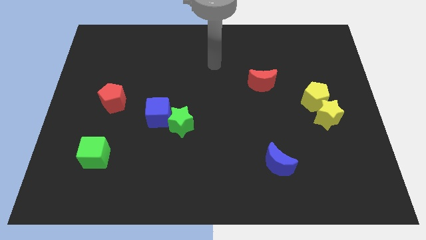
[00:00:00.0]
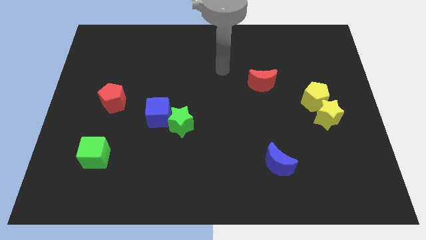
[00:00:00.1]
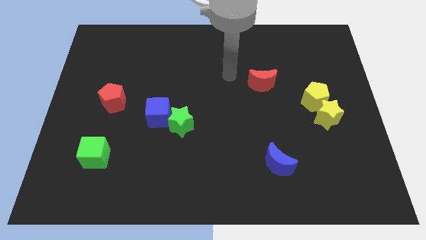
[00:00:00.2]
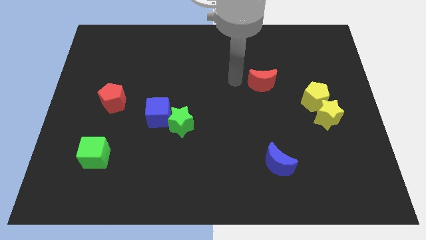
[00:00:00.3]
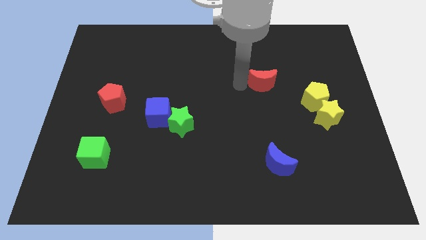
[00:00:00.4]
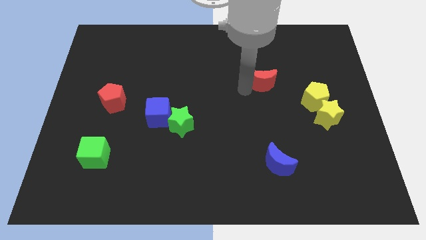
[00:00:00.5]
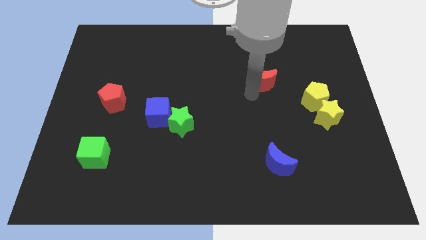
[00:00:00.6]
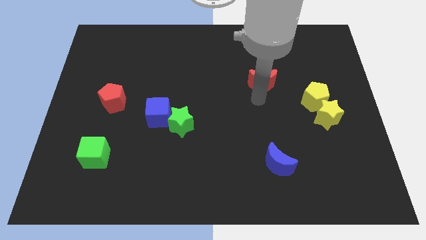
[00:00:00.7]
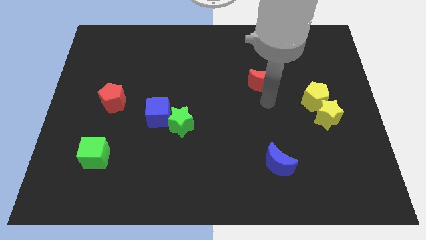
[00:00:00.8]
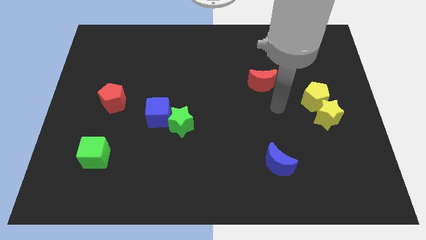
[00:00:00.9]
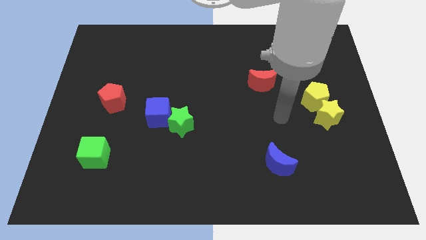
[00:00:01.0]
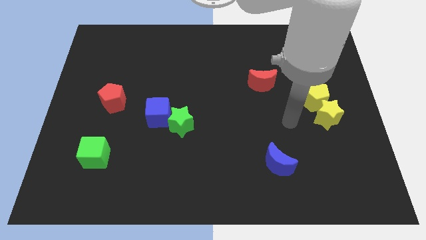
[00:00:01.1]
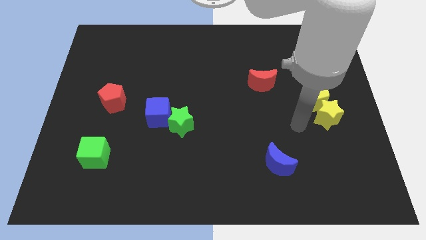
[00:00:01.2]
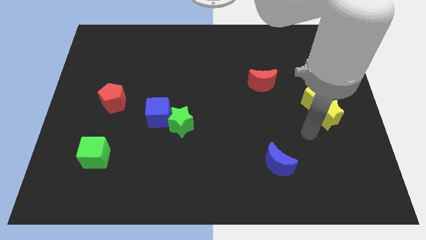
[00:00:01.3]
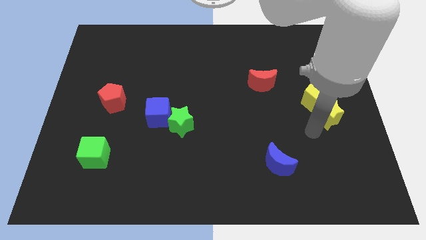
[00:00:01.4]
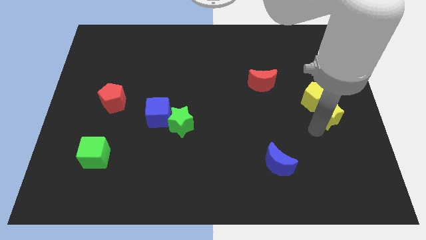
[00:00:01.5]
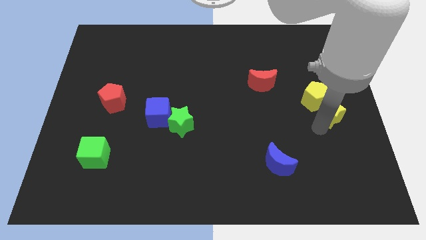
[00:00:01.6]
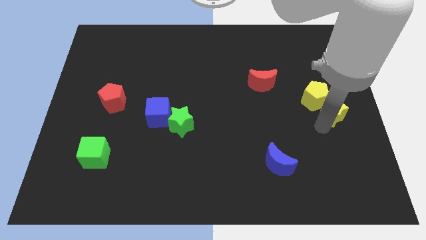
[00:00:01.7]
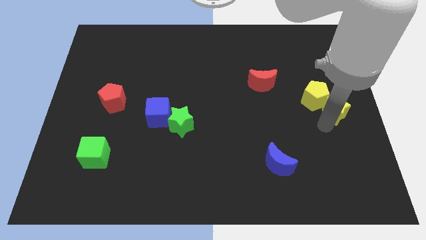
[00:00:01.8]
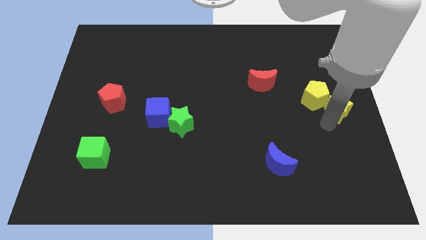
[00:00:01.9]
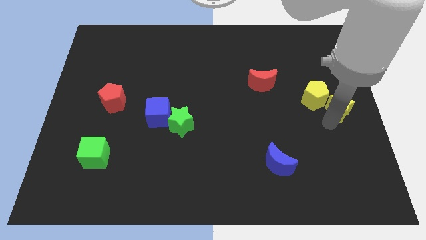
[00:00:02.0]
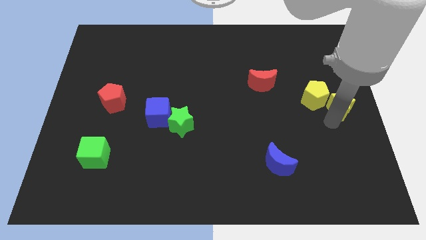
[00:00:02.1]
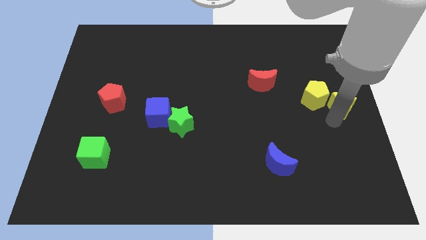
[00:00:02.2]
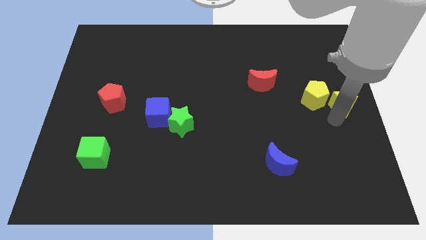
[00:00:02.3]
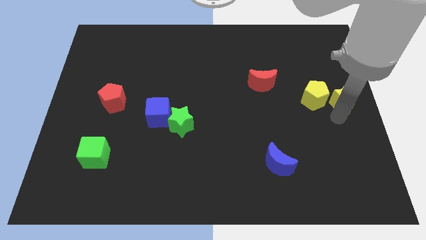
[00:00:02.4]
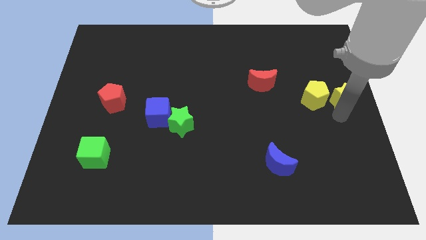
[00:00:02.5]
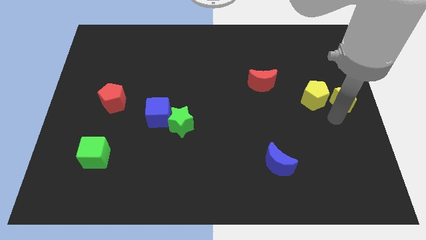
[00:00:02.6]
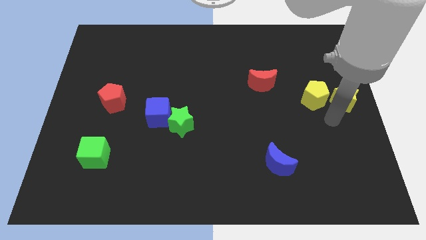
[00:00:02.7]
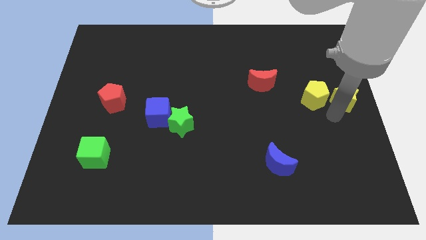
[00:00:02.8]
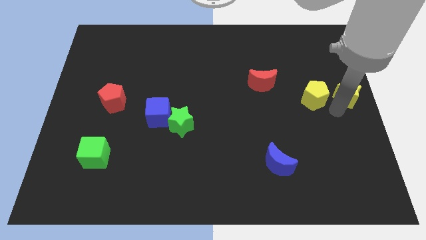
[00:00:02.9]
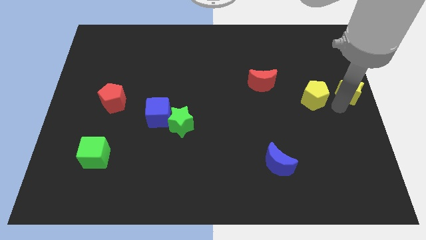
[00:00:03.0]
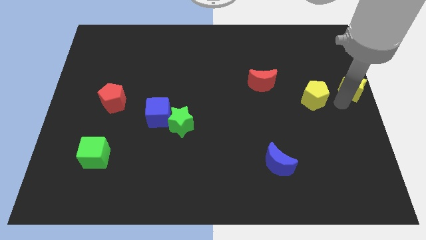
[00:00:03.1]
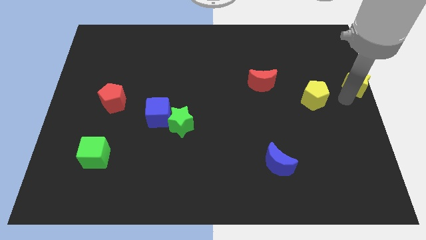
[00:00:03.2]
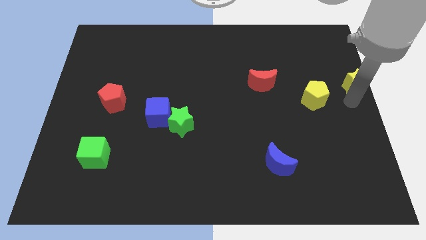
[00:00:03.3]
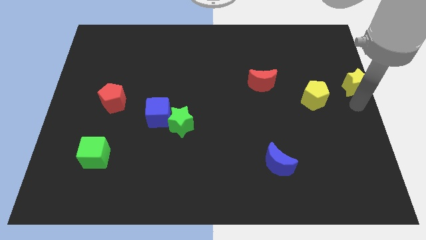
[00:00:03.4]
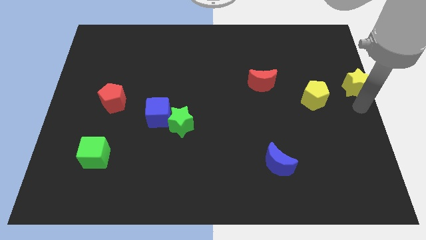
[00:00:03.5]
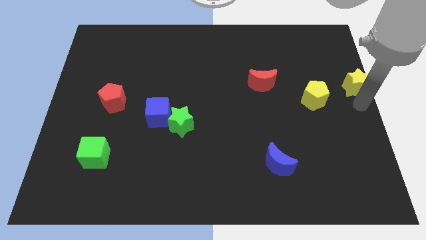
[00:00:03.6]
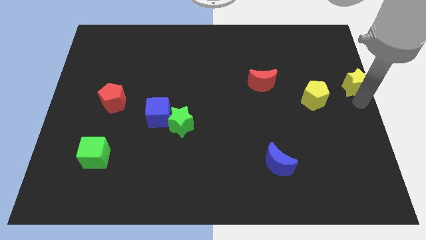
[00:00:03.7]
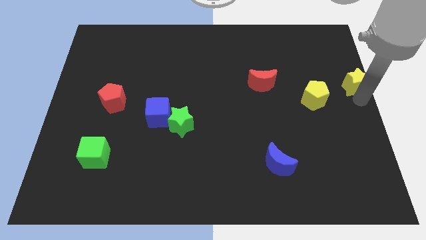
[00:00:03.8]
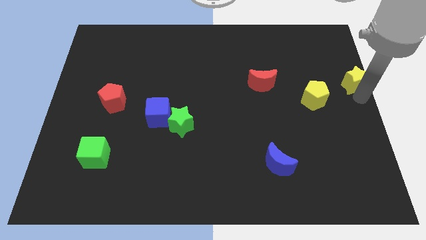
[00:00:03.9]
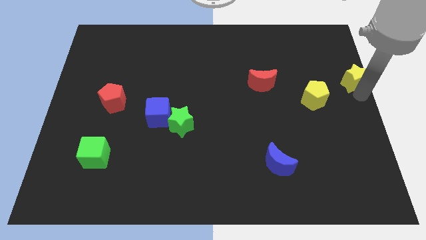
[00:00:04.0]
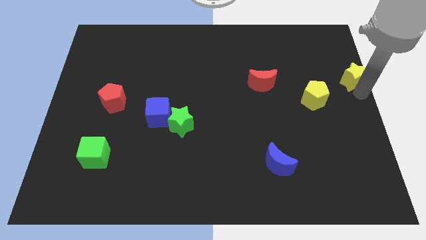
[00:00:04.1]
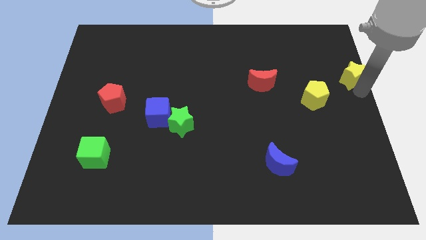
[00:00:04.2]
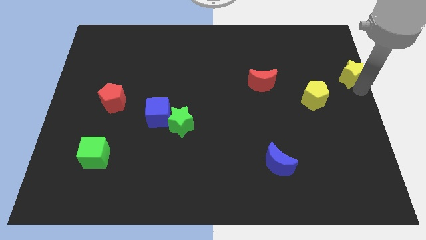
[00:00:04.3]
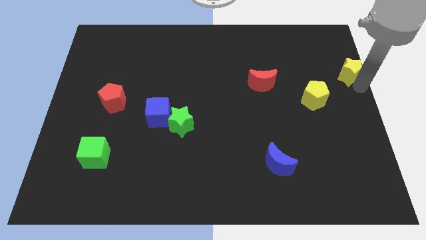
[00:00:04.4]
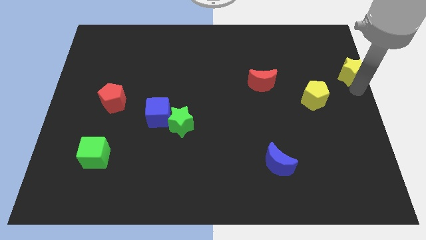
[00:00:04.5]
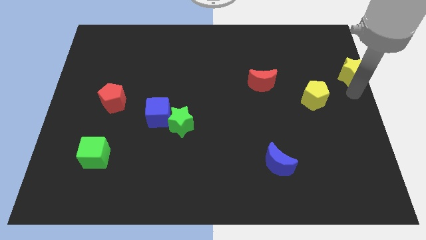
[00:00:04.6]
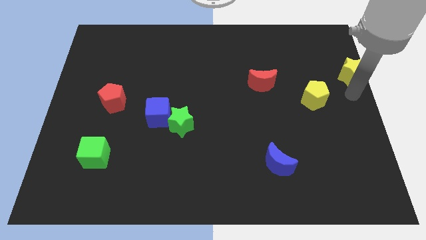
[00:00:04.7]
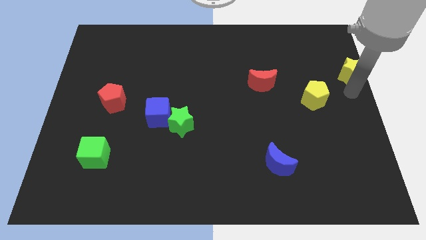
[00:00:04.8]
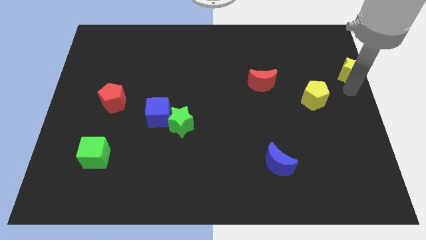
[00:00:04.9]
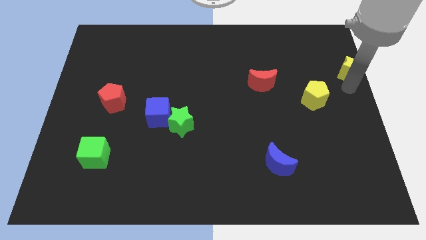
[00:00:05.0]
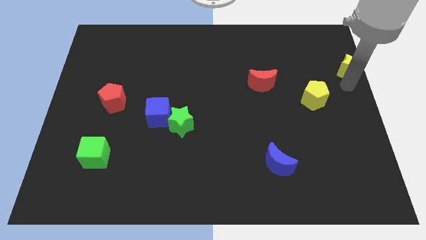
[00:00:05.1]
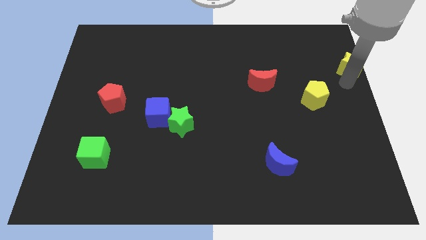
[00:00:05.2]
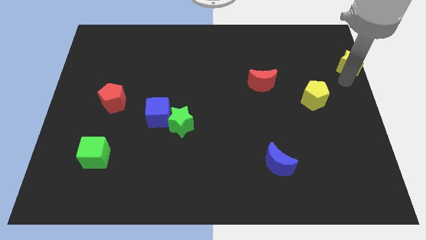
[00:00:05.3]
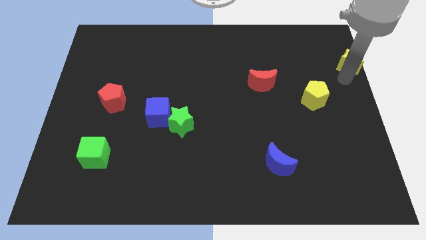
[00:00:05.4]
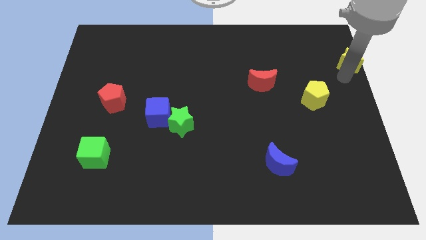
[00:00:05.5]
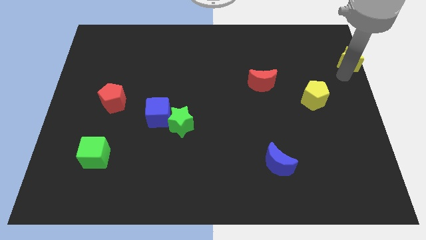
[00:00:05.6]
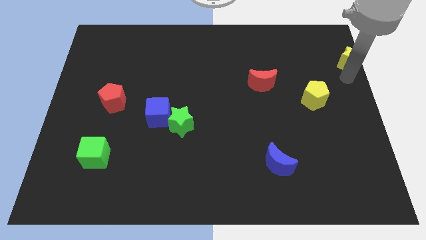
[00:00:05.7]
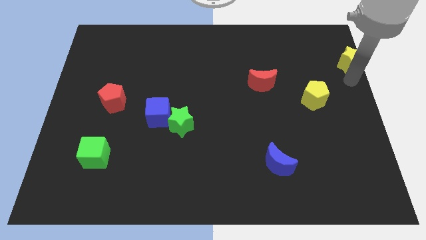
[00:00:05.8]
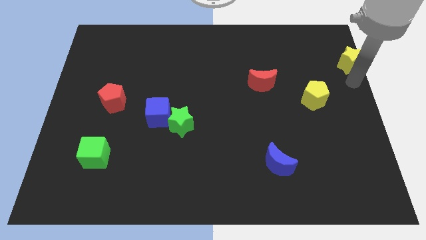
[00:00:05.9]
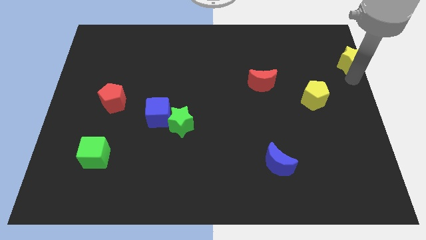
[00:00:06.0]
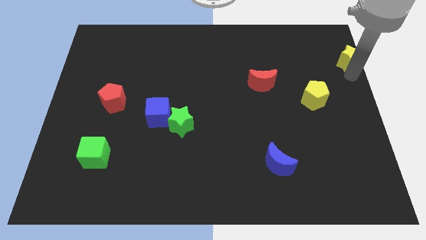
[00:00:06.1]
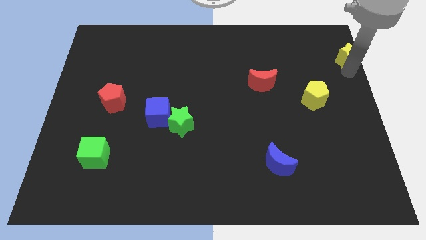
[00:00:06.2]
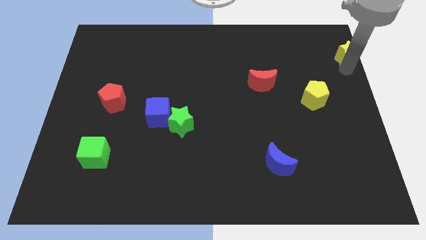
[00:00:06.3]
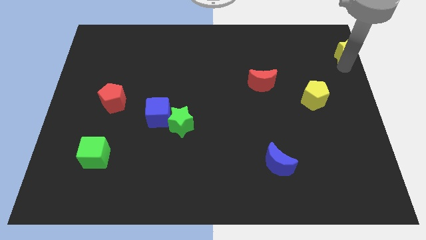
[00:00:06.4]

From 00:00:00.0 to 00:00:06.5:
slide the yellow star to the top right of the board
